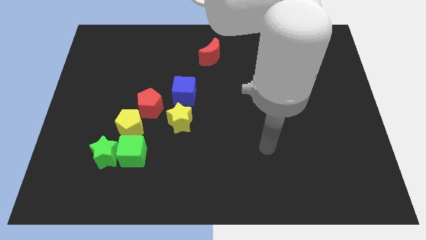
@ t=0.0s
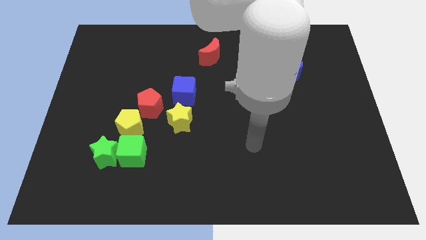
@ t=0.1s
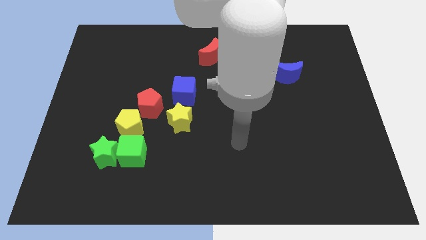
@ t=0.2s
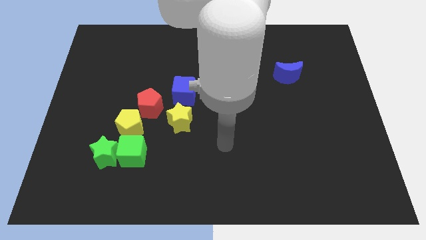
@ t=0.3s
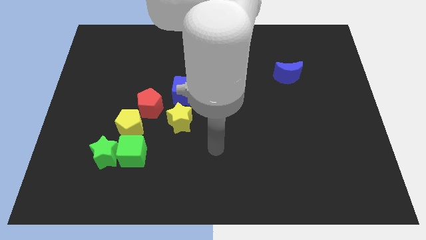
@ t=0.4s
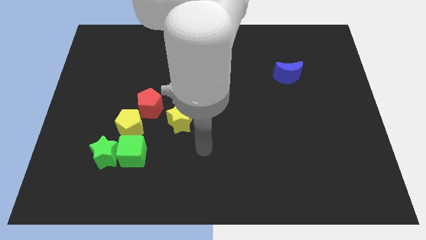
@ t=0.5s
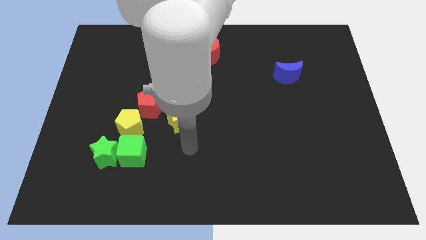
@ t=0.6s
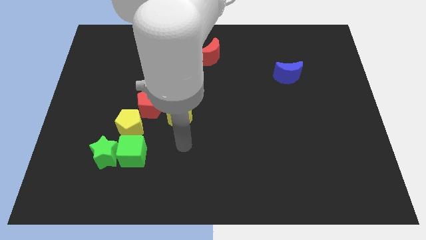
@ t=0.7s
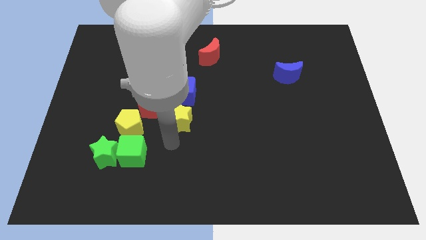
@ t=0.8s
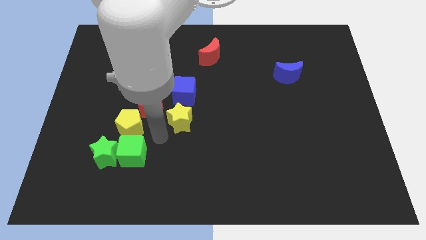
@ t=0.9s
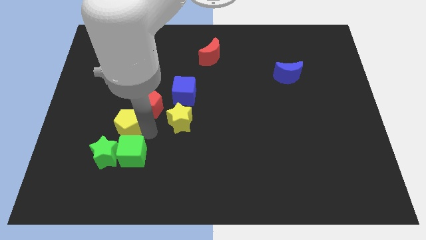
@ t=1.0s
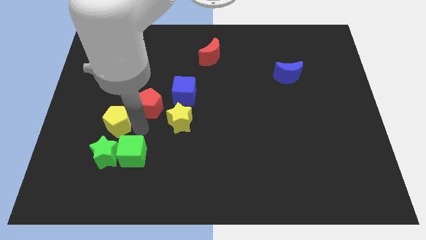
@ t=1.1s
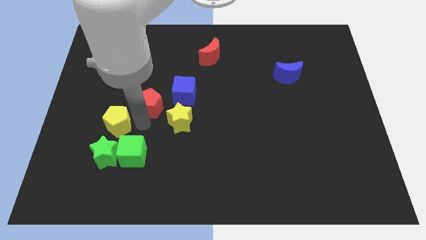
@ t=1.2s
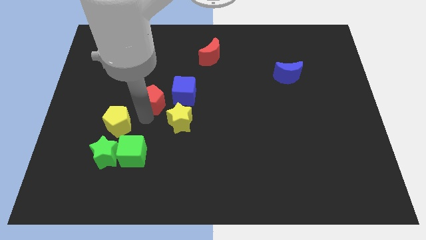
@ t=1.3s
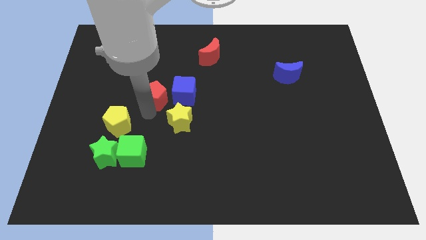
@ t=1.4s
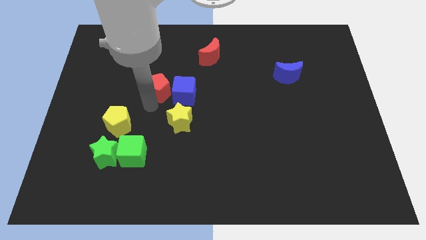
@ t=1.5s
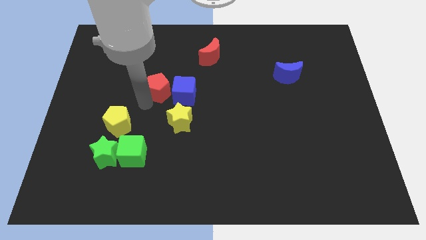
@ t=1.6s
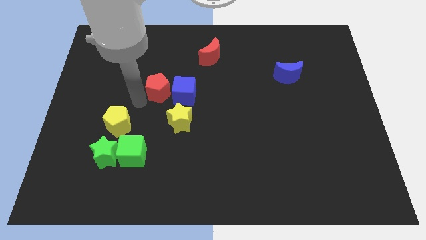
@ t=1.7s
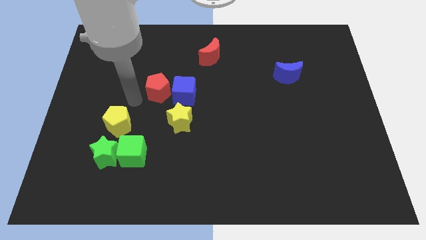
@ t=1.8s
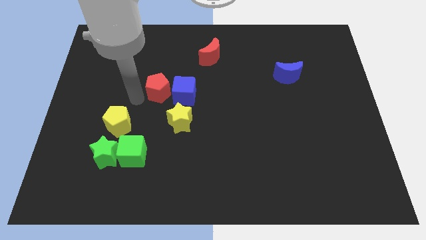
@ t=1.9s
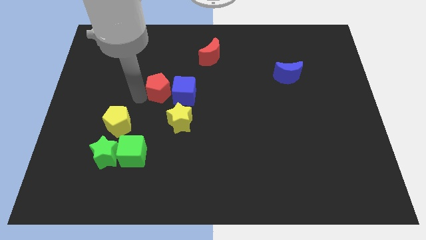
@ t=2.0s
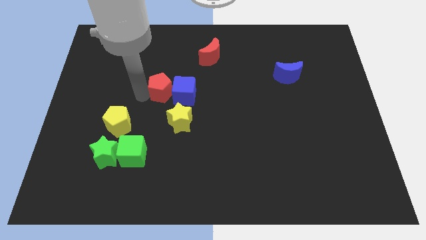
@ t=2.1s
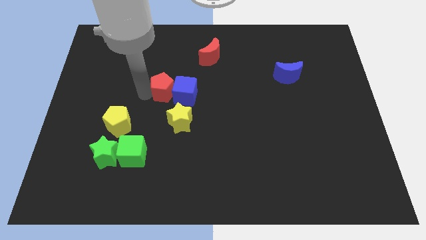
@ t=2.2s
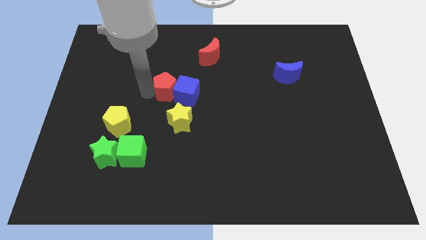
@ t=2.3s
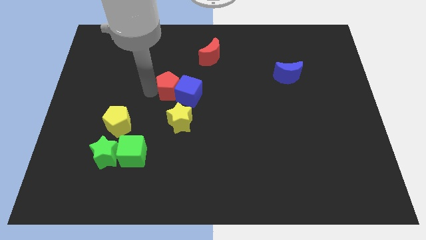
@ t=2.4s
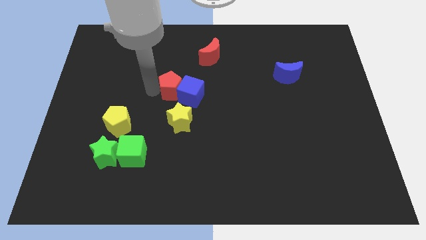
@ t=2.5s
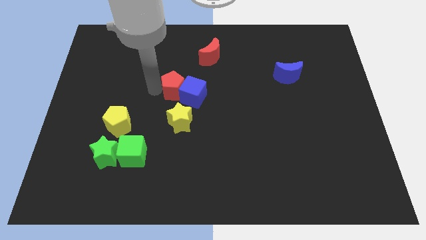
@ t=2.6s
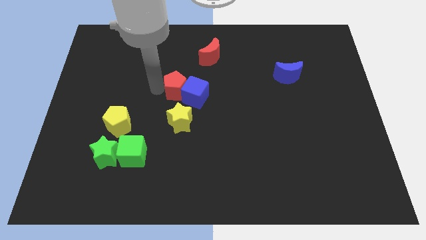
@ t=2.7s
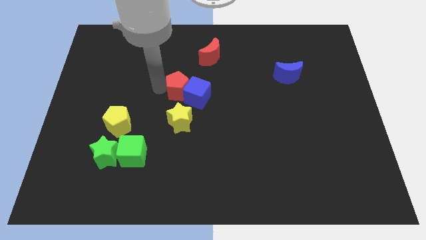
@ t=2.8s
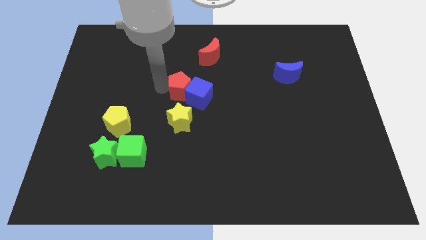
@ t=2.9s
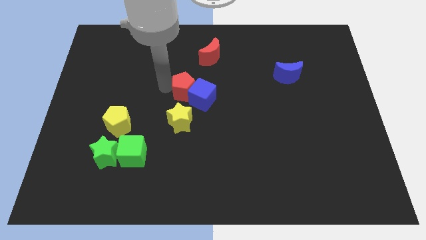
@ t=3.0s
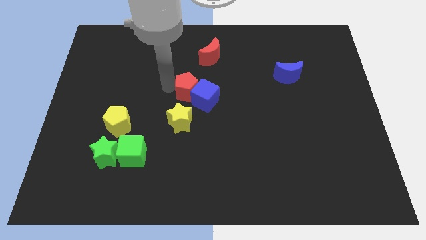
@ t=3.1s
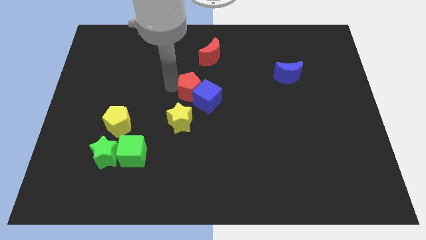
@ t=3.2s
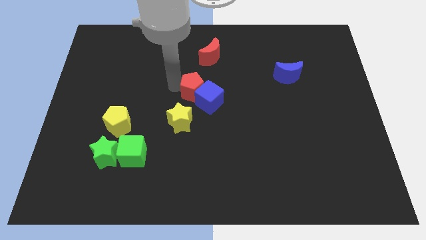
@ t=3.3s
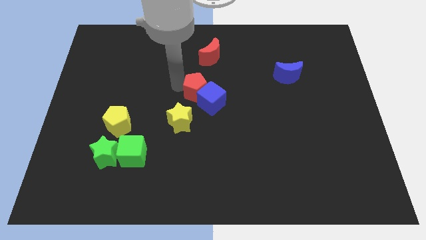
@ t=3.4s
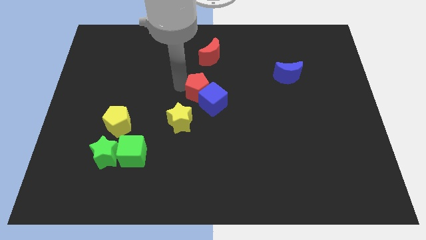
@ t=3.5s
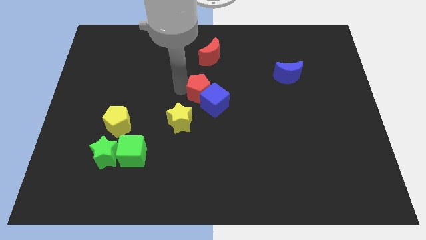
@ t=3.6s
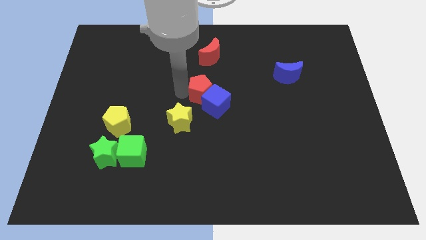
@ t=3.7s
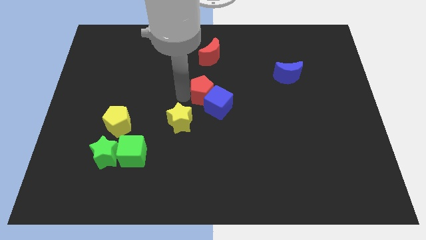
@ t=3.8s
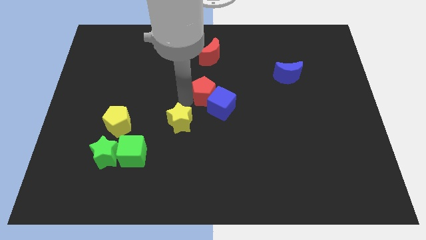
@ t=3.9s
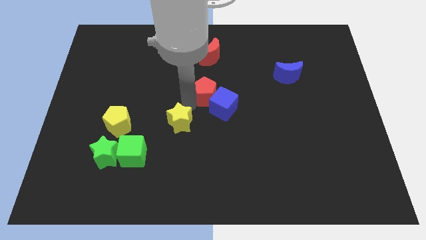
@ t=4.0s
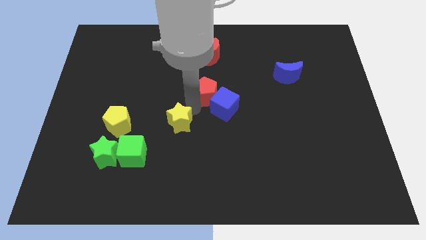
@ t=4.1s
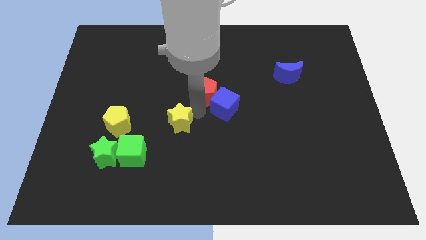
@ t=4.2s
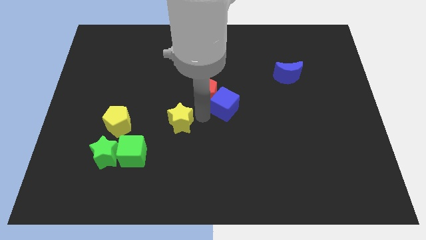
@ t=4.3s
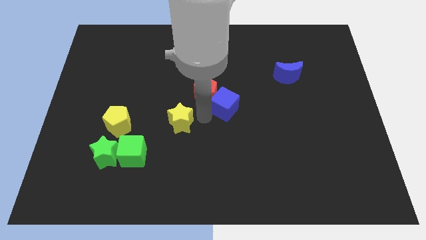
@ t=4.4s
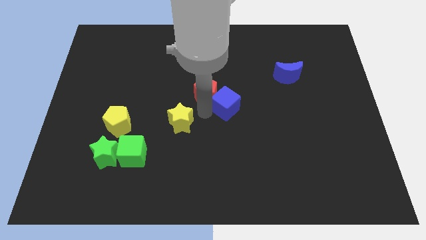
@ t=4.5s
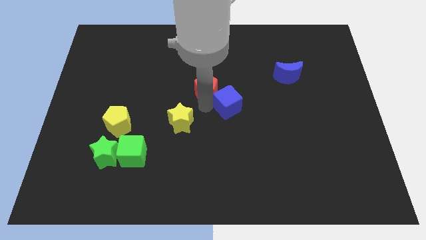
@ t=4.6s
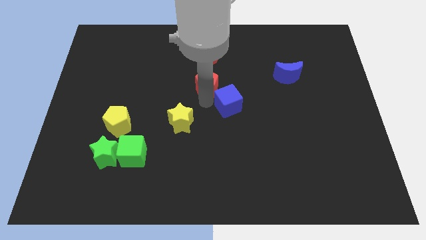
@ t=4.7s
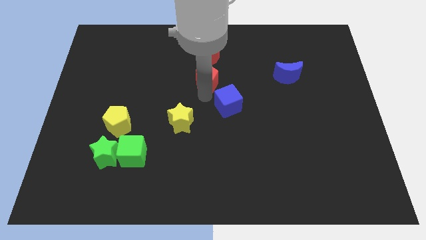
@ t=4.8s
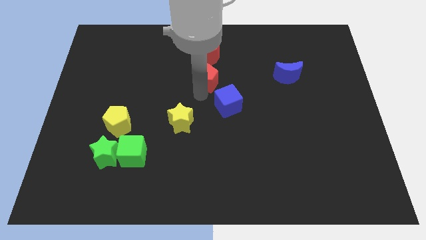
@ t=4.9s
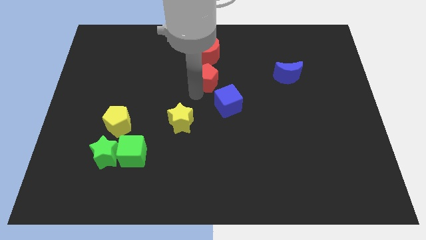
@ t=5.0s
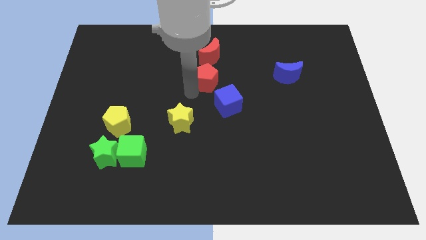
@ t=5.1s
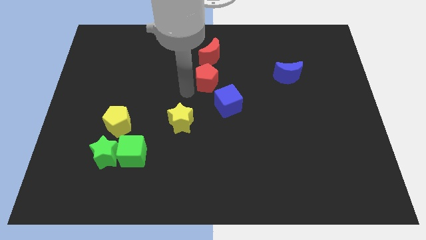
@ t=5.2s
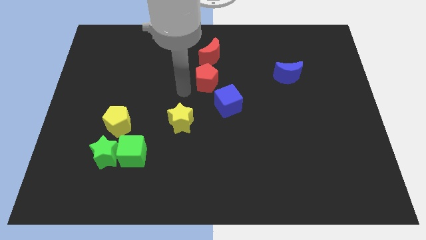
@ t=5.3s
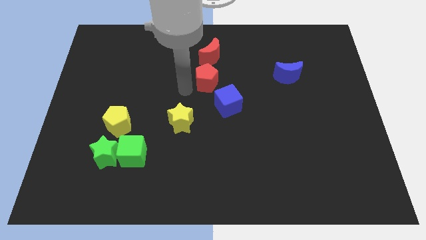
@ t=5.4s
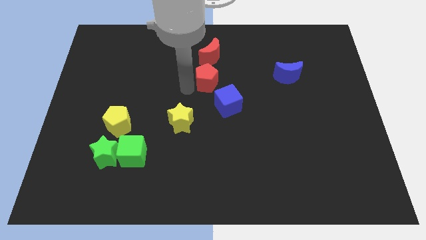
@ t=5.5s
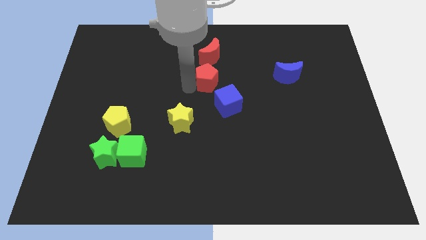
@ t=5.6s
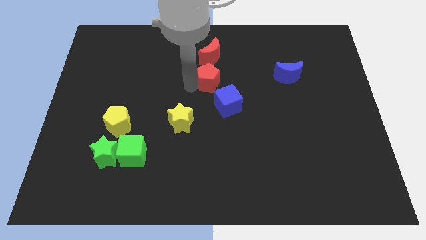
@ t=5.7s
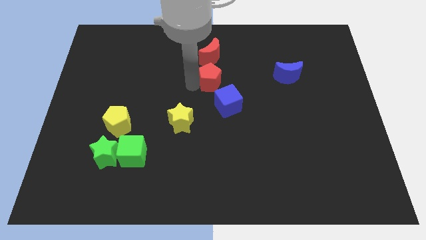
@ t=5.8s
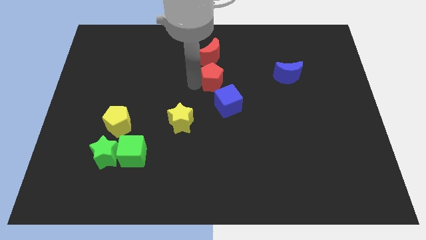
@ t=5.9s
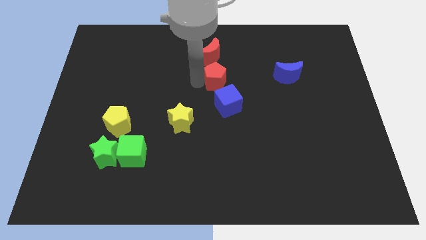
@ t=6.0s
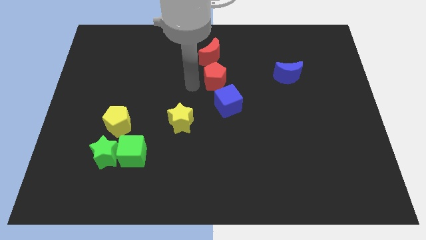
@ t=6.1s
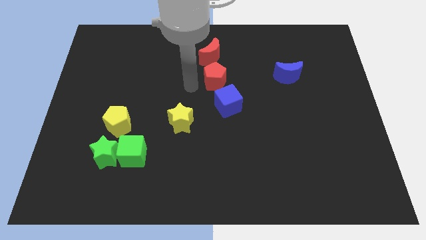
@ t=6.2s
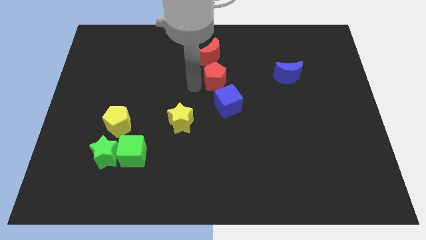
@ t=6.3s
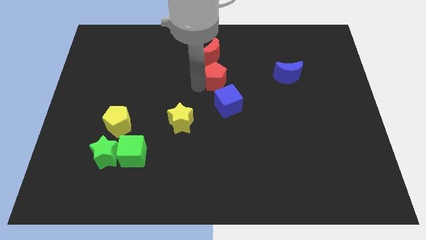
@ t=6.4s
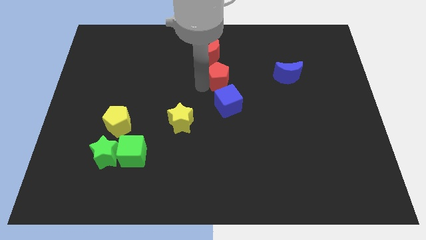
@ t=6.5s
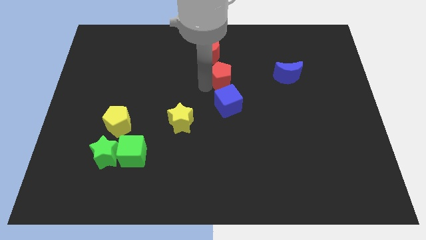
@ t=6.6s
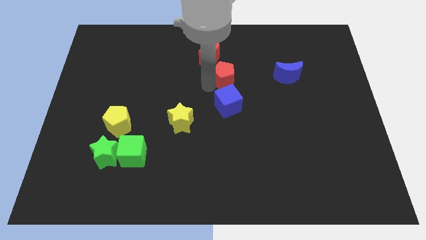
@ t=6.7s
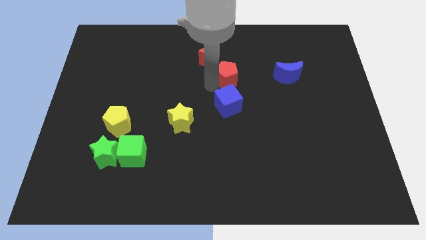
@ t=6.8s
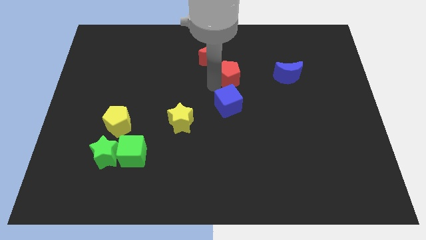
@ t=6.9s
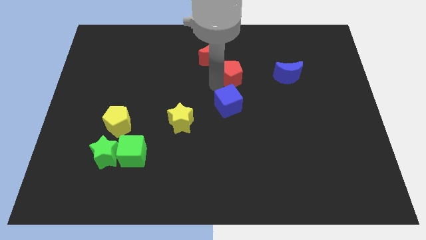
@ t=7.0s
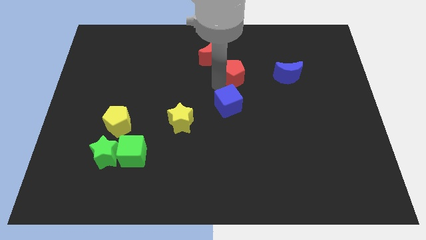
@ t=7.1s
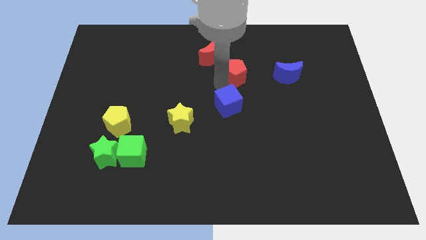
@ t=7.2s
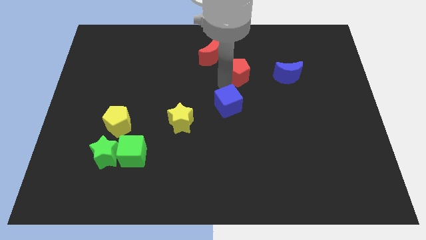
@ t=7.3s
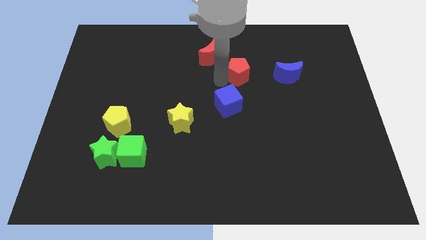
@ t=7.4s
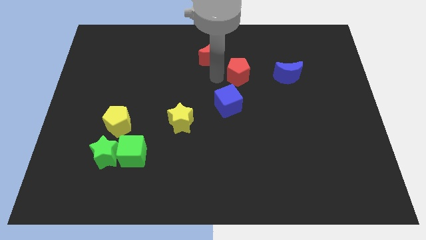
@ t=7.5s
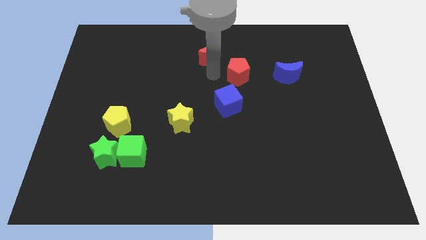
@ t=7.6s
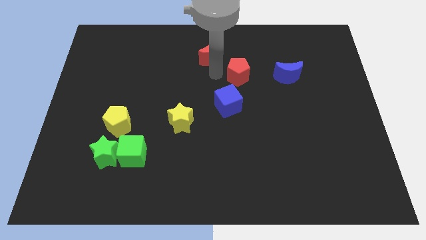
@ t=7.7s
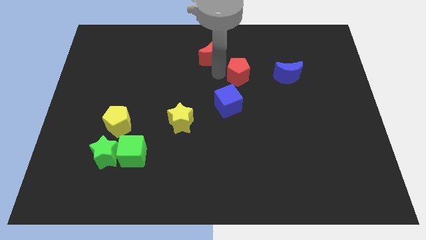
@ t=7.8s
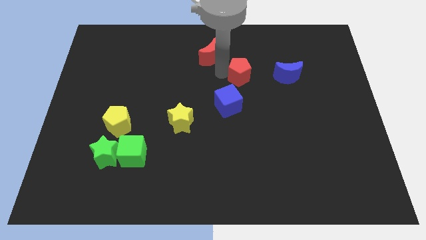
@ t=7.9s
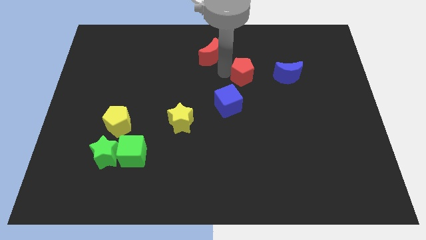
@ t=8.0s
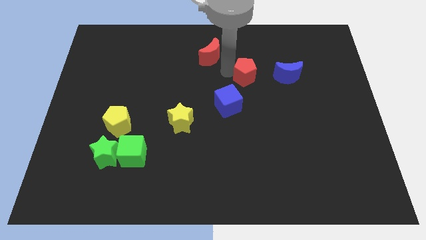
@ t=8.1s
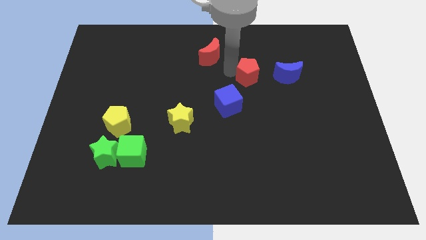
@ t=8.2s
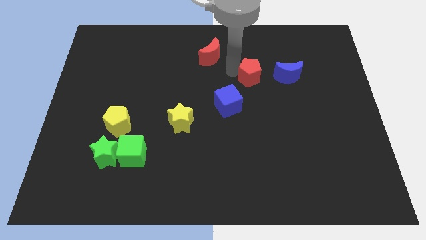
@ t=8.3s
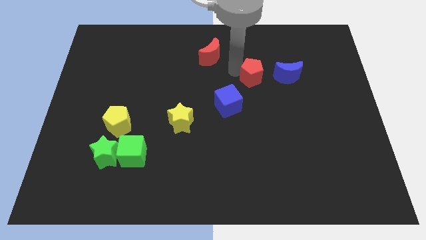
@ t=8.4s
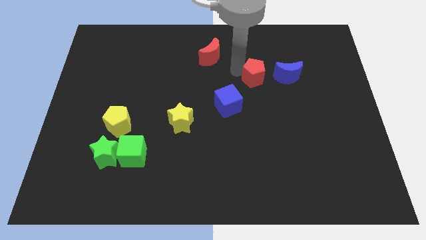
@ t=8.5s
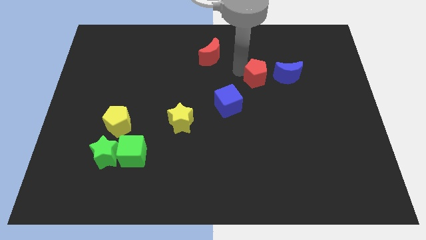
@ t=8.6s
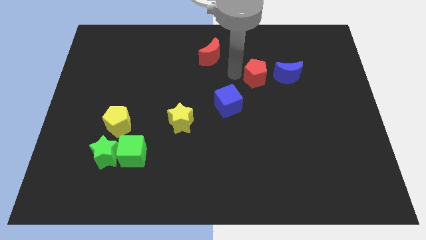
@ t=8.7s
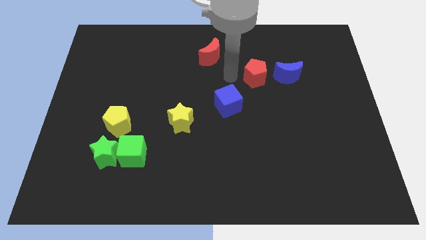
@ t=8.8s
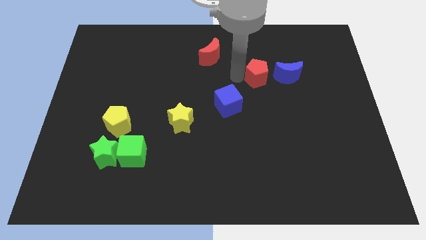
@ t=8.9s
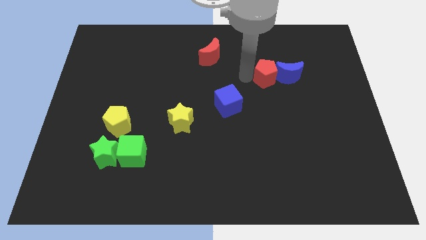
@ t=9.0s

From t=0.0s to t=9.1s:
put the red pentagon next to the blue moon
